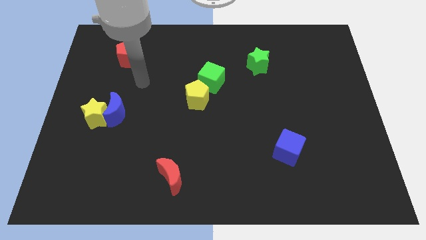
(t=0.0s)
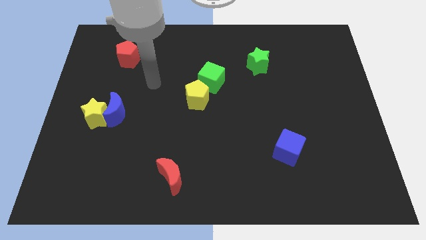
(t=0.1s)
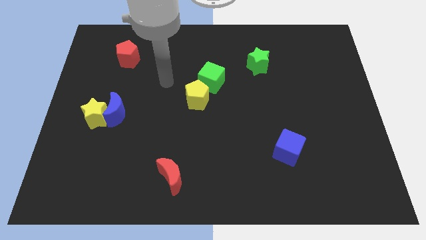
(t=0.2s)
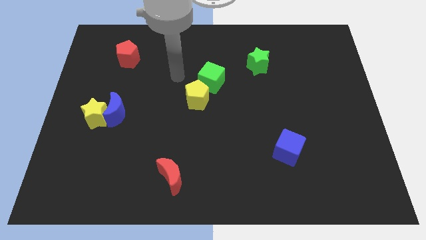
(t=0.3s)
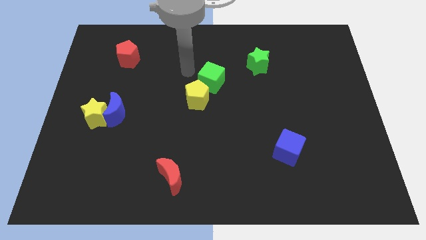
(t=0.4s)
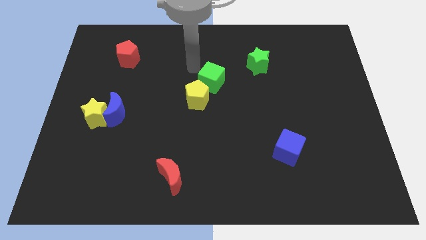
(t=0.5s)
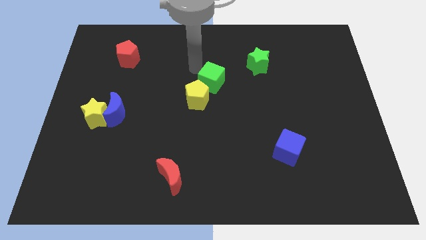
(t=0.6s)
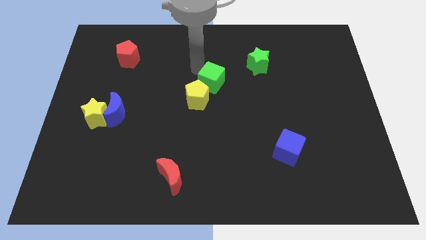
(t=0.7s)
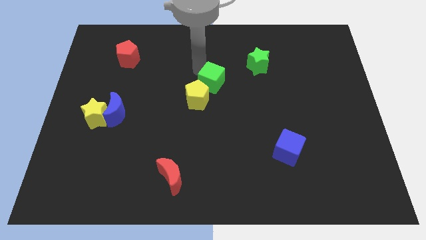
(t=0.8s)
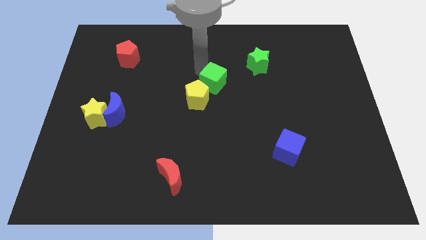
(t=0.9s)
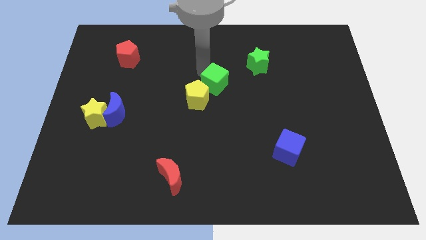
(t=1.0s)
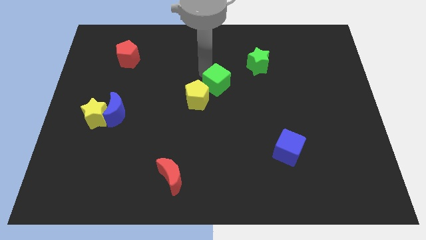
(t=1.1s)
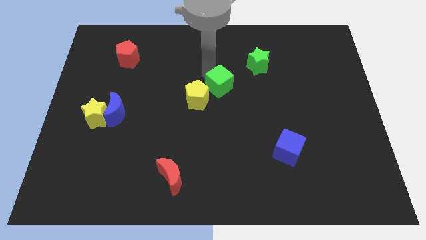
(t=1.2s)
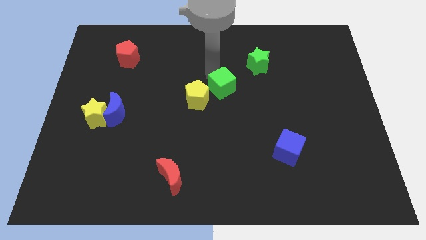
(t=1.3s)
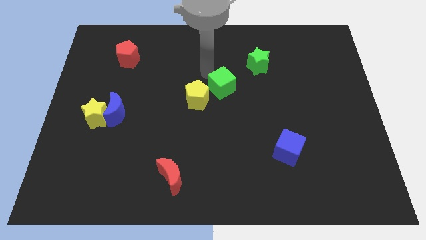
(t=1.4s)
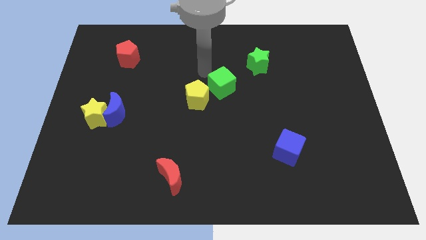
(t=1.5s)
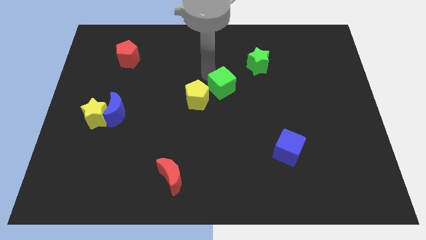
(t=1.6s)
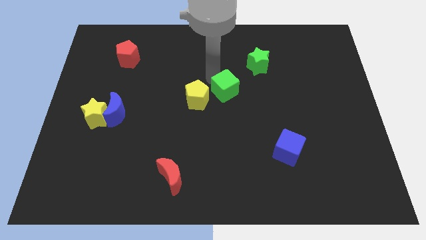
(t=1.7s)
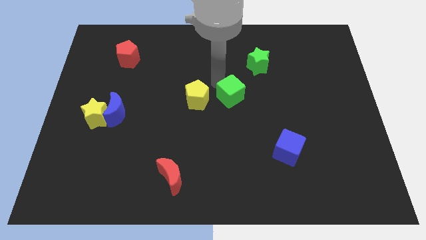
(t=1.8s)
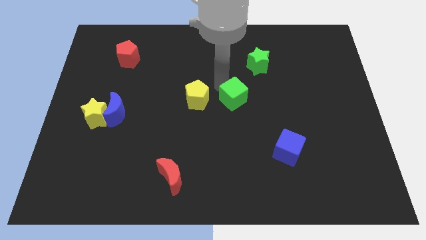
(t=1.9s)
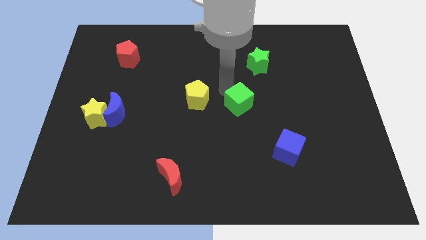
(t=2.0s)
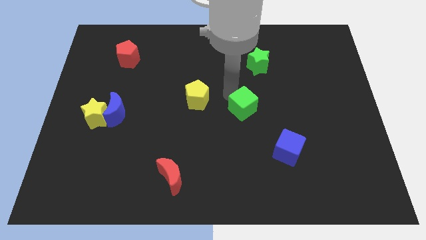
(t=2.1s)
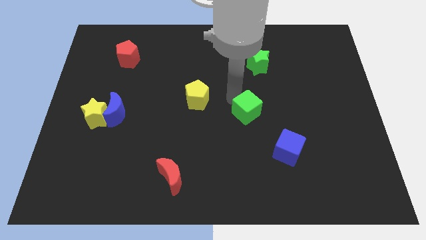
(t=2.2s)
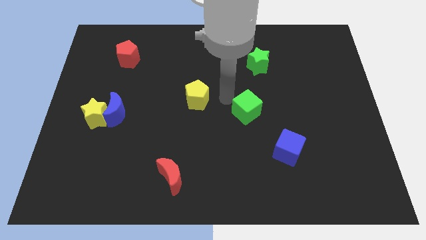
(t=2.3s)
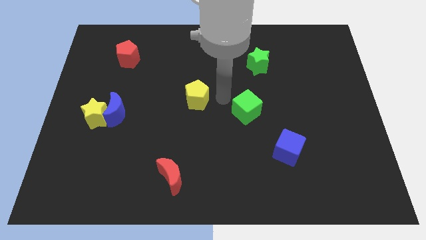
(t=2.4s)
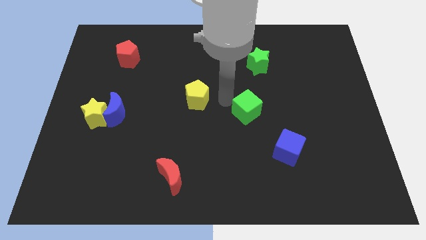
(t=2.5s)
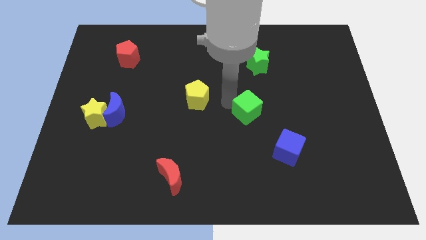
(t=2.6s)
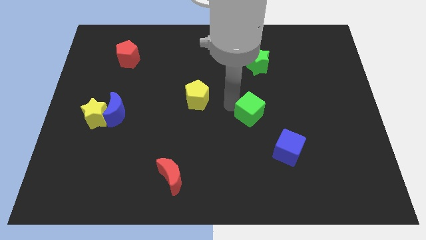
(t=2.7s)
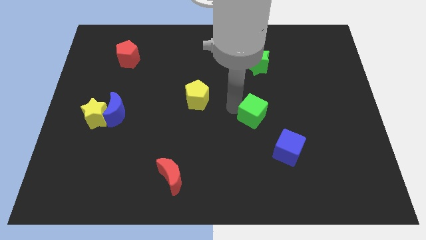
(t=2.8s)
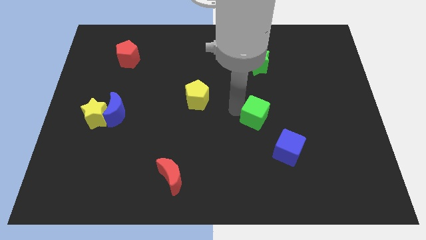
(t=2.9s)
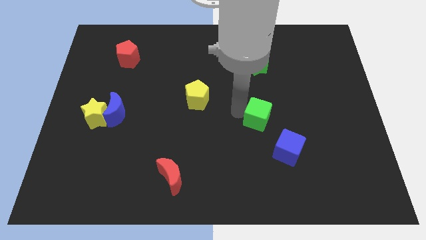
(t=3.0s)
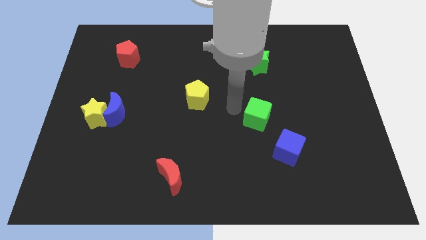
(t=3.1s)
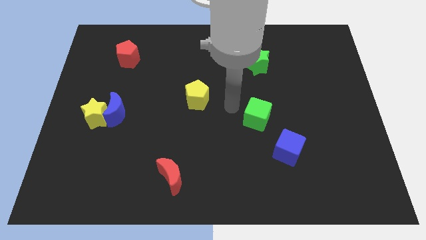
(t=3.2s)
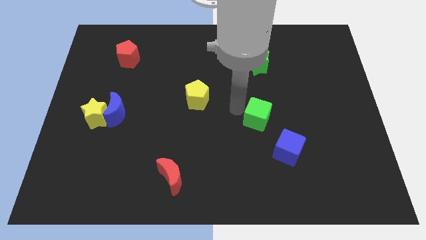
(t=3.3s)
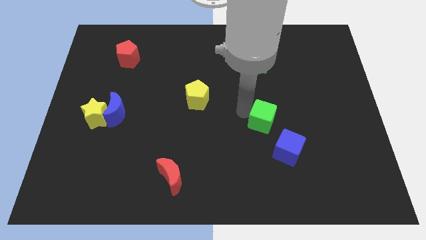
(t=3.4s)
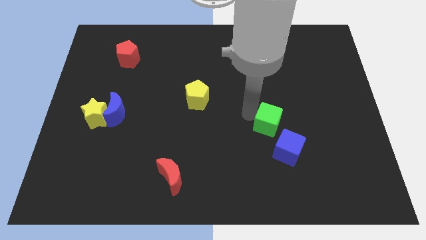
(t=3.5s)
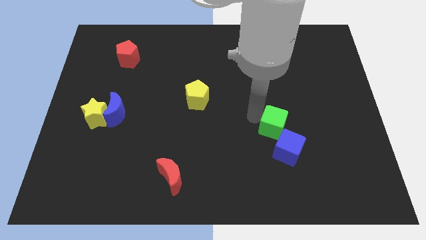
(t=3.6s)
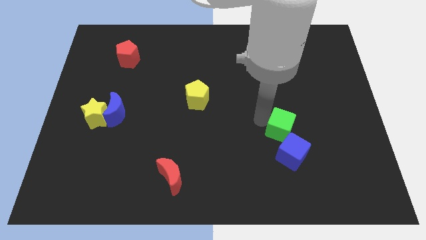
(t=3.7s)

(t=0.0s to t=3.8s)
slide the green cube down and right diagonally

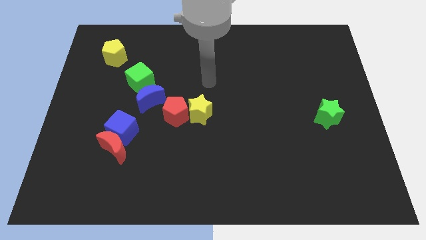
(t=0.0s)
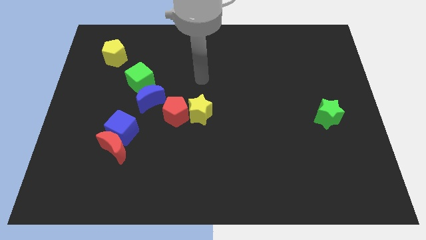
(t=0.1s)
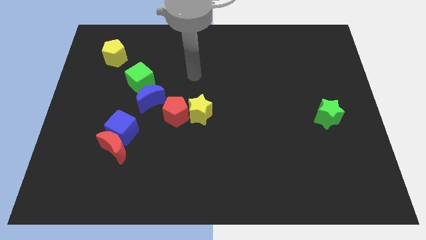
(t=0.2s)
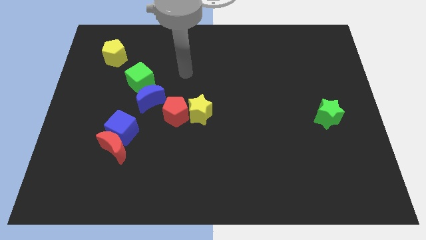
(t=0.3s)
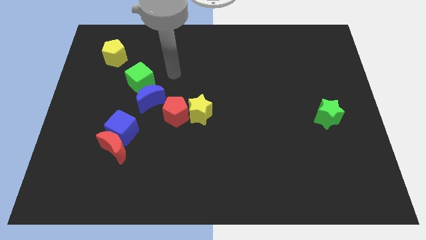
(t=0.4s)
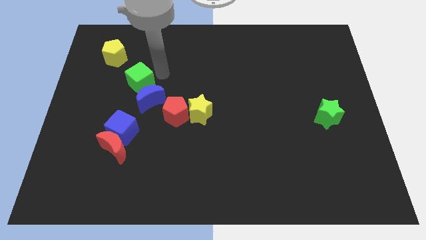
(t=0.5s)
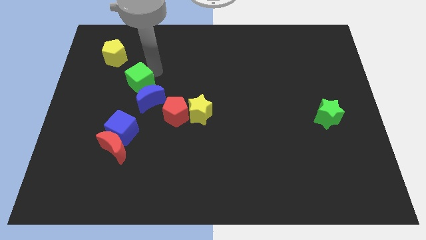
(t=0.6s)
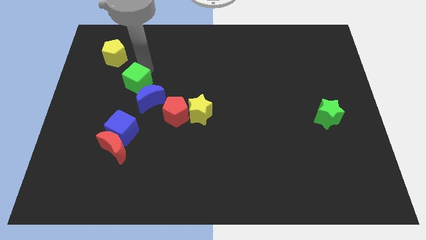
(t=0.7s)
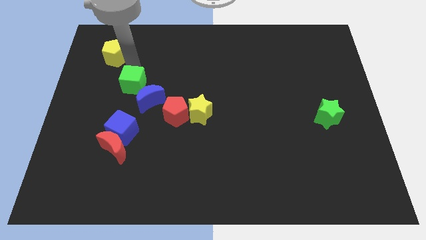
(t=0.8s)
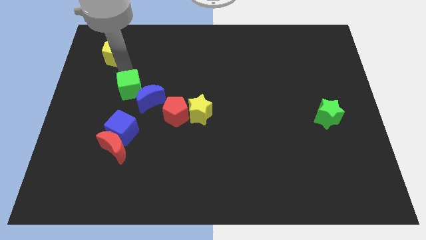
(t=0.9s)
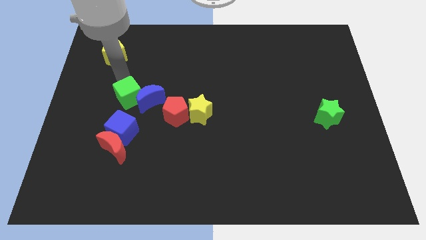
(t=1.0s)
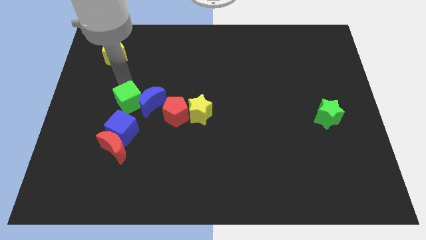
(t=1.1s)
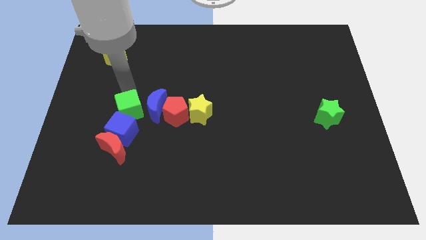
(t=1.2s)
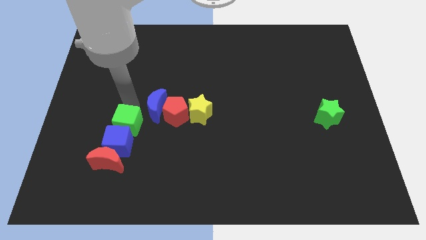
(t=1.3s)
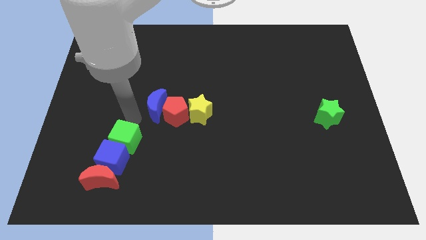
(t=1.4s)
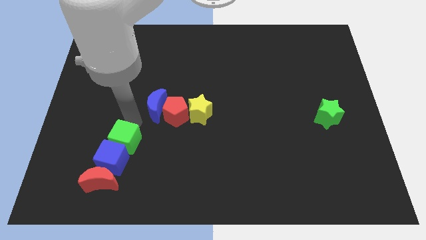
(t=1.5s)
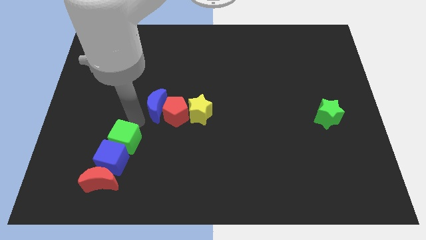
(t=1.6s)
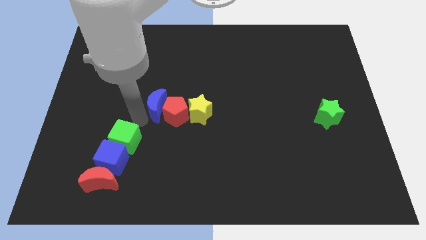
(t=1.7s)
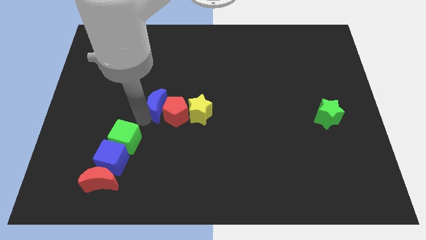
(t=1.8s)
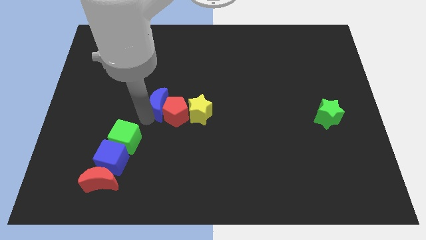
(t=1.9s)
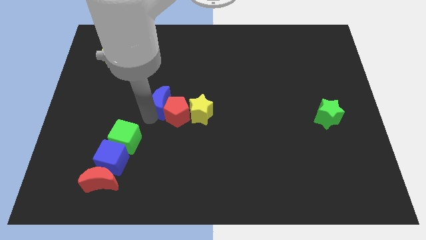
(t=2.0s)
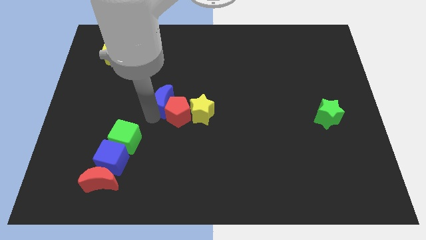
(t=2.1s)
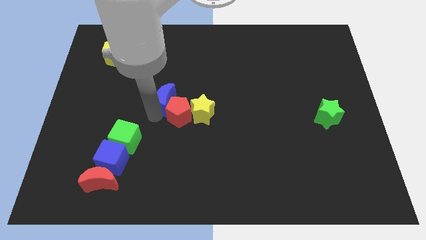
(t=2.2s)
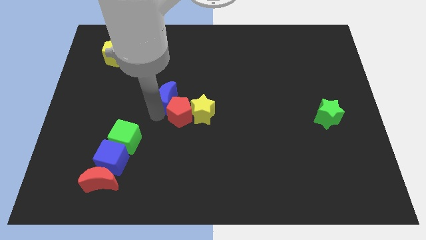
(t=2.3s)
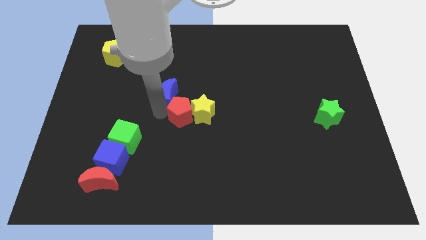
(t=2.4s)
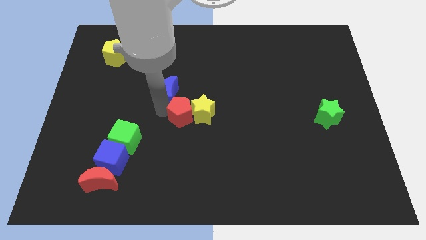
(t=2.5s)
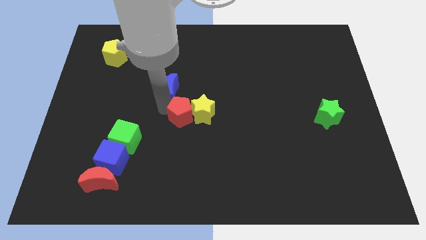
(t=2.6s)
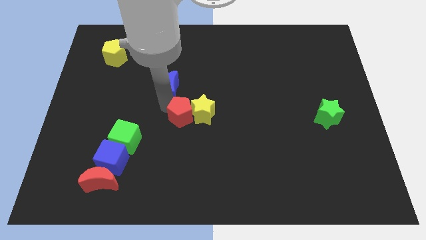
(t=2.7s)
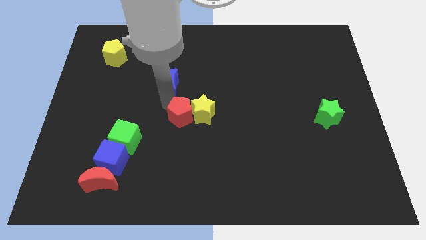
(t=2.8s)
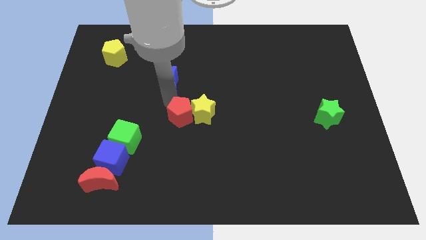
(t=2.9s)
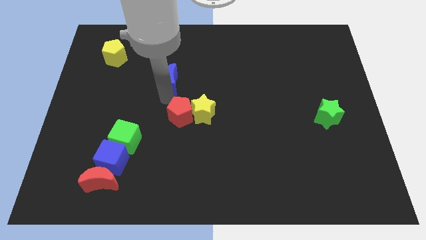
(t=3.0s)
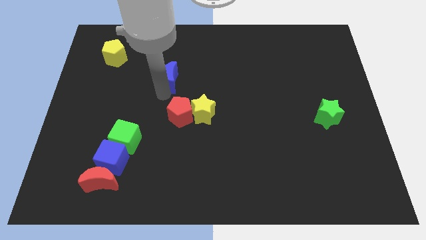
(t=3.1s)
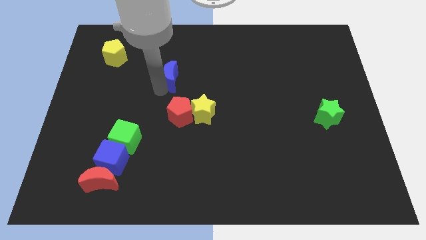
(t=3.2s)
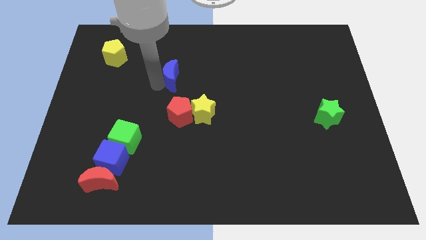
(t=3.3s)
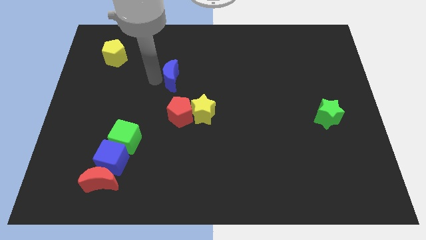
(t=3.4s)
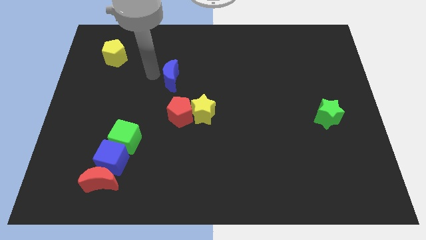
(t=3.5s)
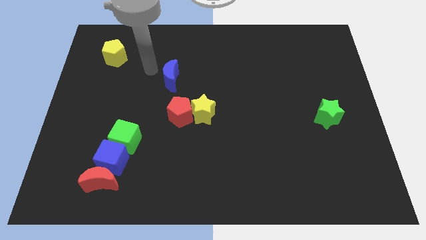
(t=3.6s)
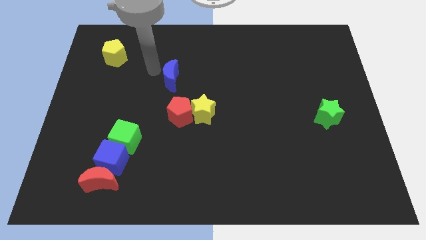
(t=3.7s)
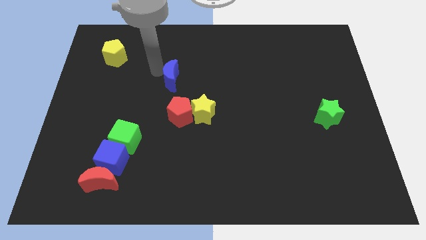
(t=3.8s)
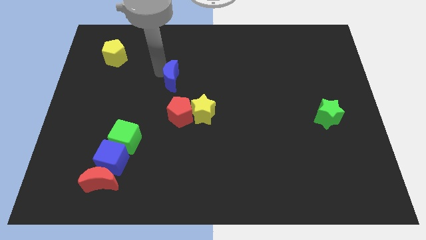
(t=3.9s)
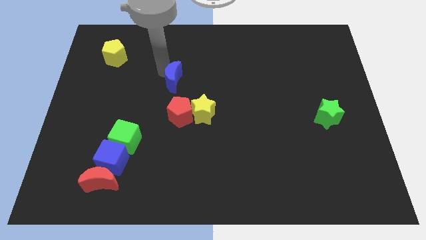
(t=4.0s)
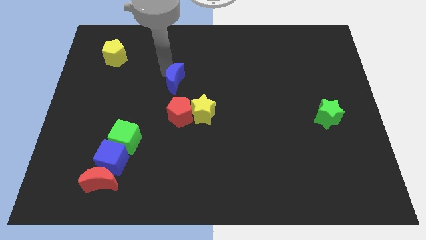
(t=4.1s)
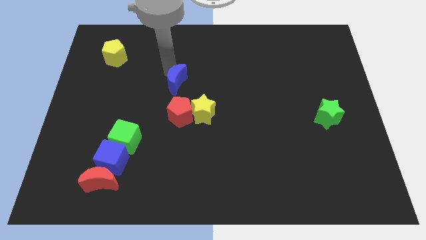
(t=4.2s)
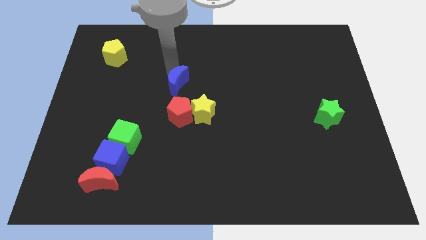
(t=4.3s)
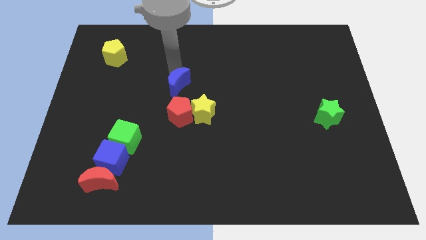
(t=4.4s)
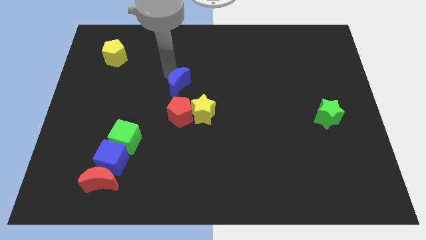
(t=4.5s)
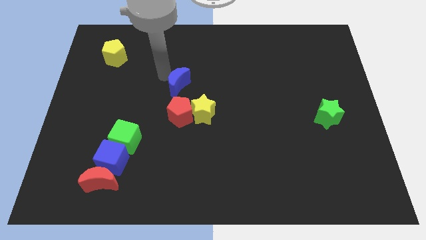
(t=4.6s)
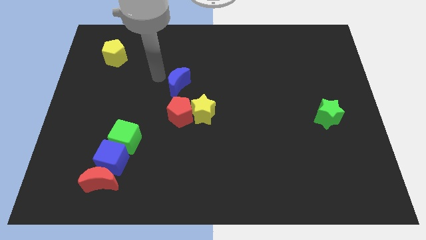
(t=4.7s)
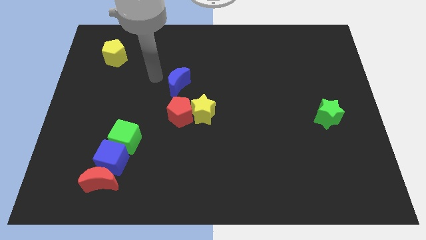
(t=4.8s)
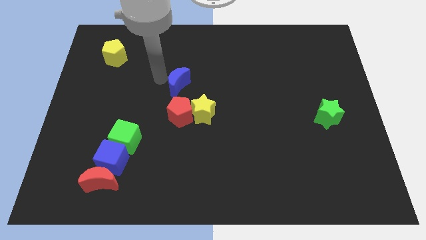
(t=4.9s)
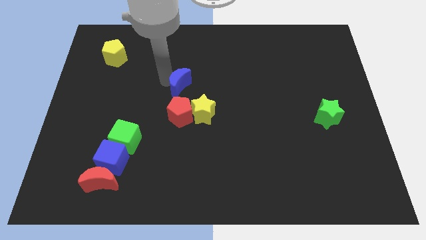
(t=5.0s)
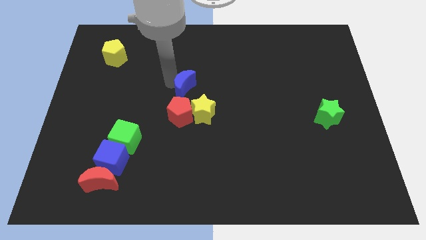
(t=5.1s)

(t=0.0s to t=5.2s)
slide the blue moon a little right
